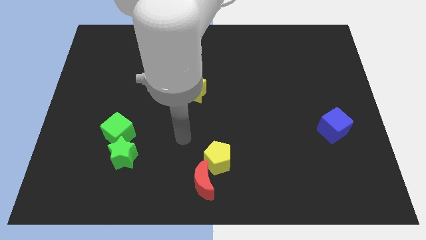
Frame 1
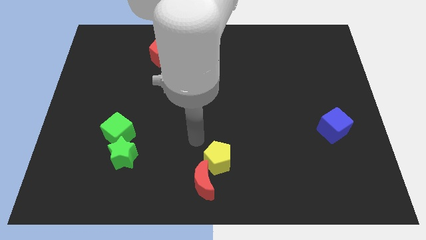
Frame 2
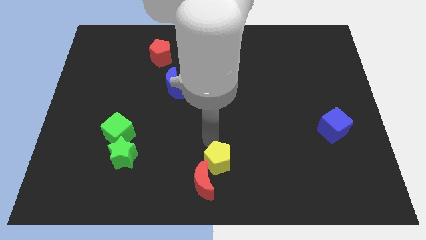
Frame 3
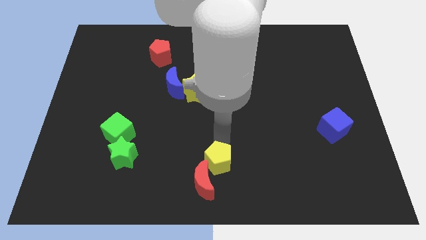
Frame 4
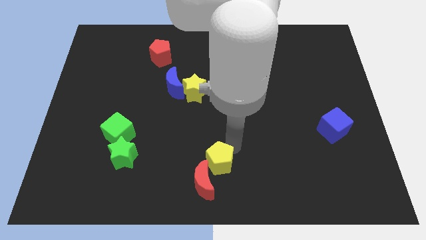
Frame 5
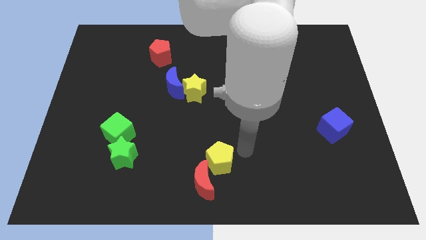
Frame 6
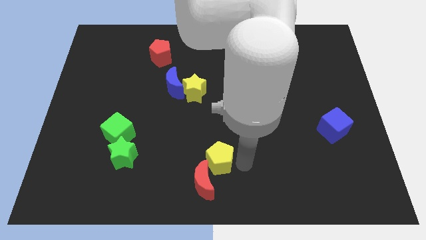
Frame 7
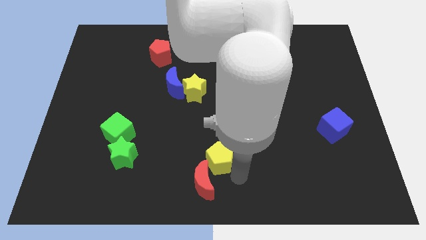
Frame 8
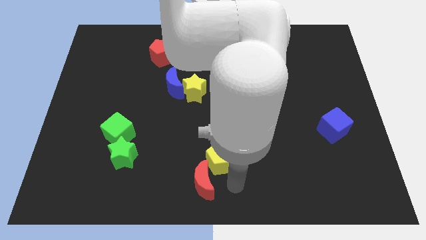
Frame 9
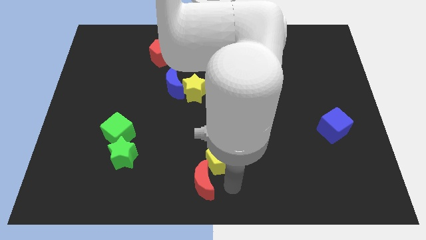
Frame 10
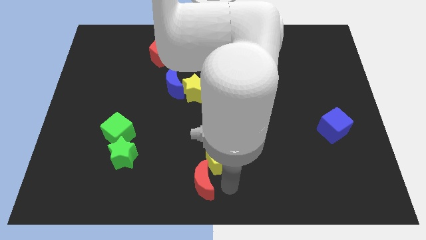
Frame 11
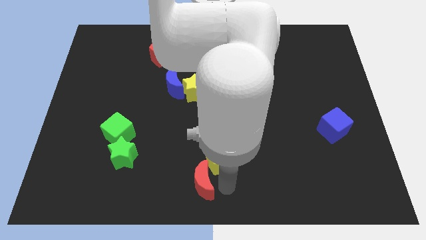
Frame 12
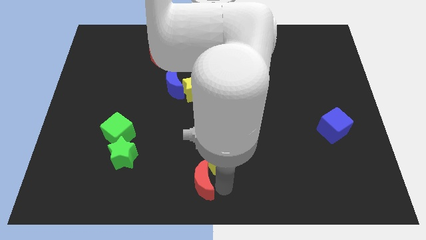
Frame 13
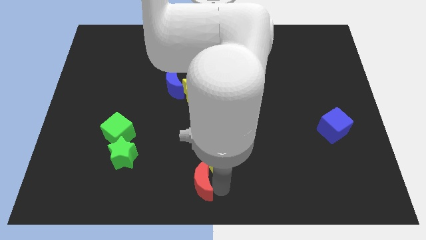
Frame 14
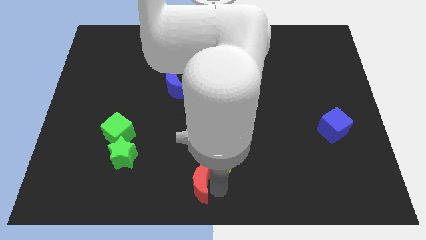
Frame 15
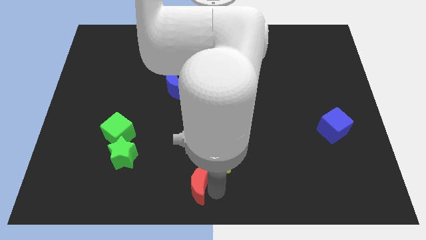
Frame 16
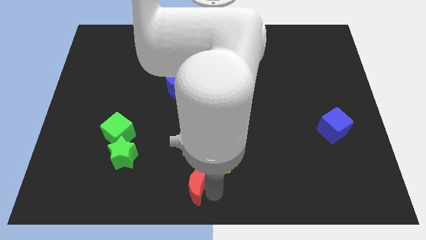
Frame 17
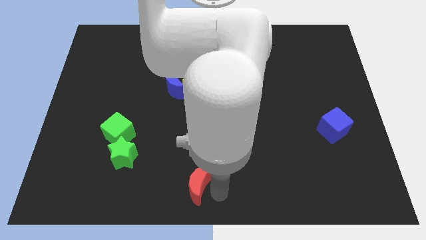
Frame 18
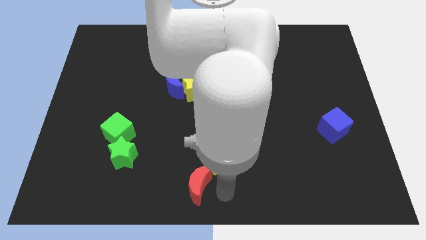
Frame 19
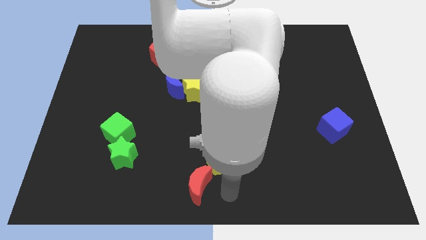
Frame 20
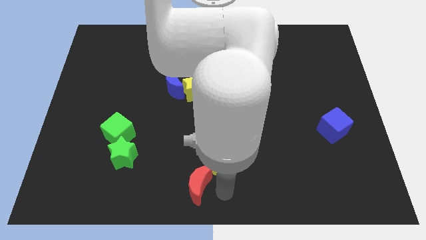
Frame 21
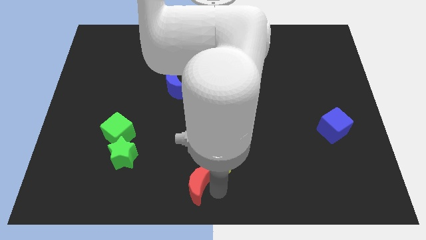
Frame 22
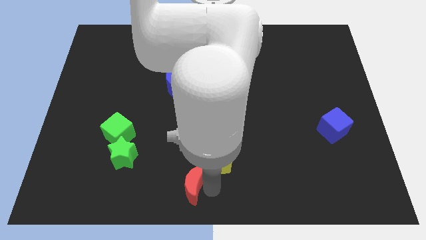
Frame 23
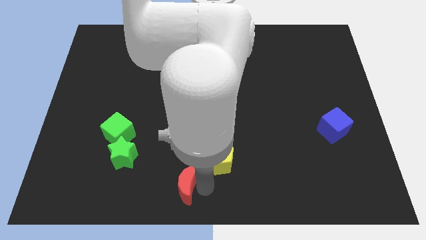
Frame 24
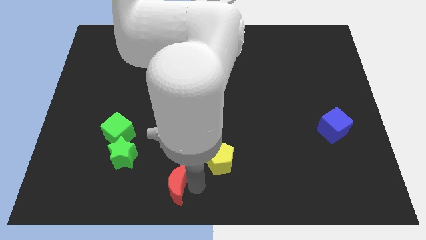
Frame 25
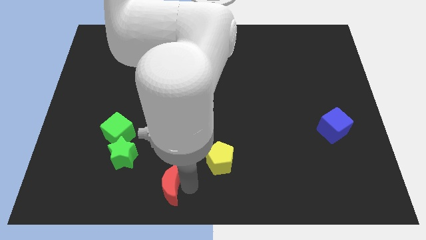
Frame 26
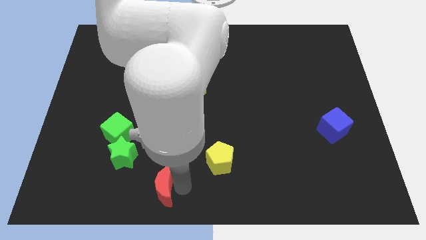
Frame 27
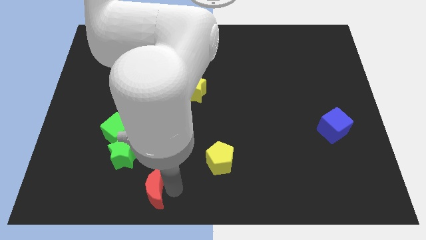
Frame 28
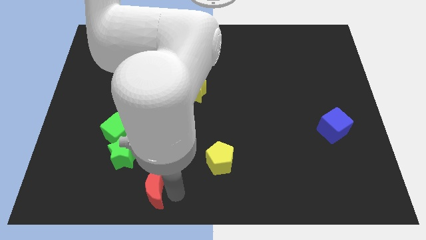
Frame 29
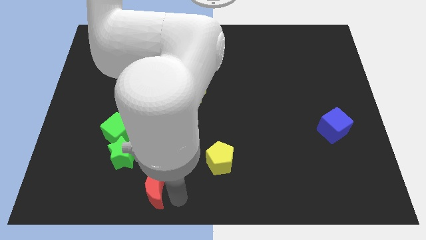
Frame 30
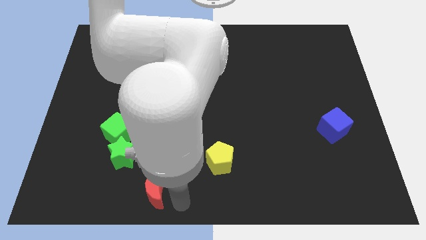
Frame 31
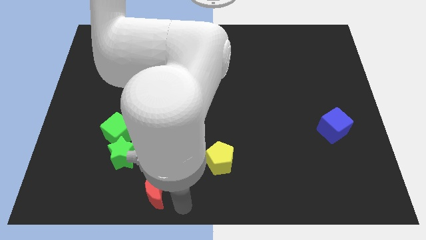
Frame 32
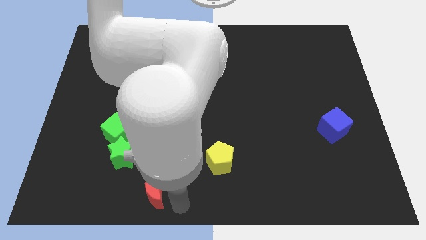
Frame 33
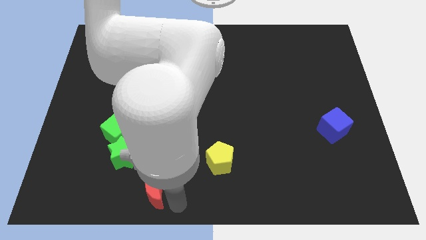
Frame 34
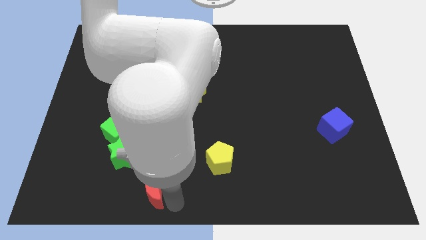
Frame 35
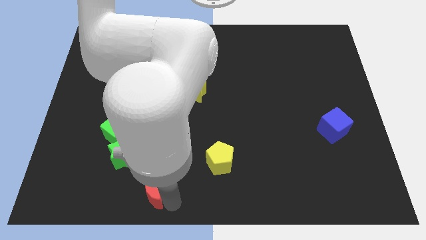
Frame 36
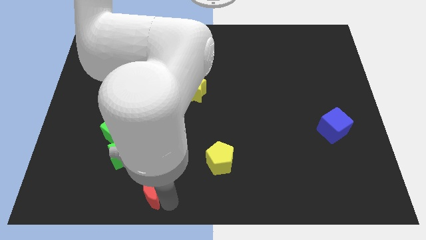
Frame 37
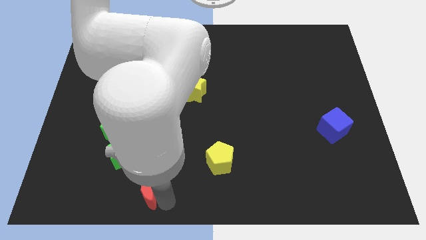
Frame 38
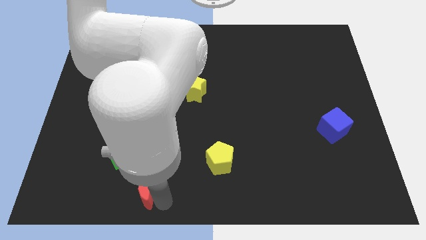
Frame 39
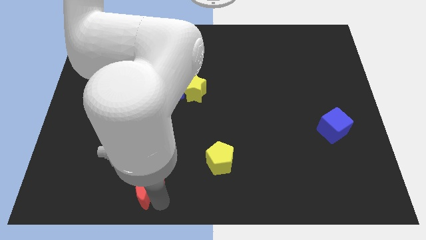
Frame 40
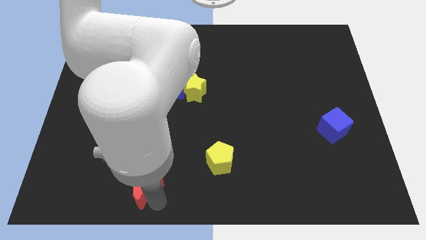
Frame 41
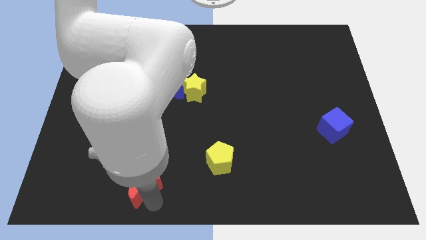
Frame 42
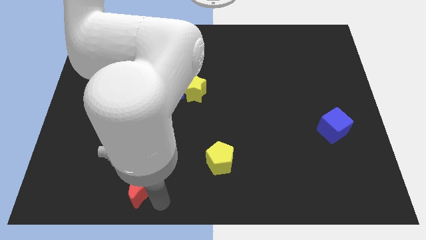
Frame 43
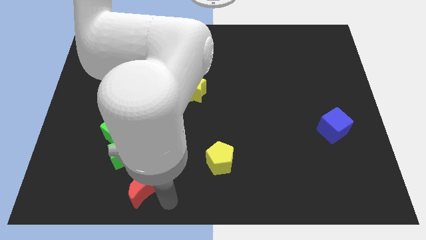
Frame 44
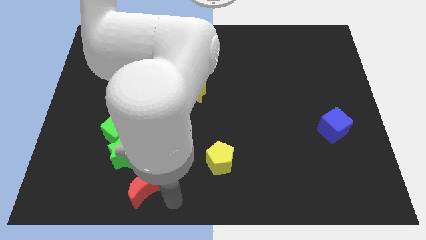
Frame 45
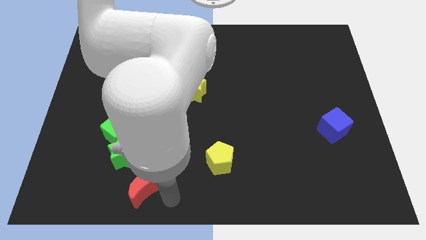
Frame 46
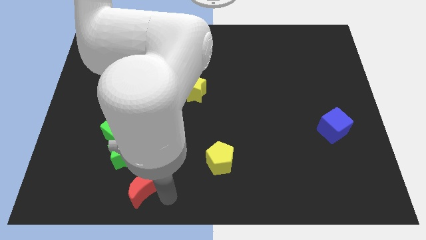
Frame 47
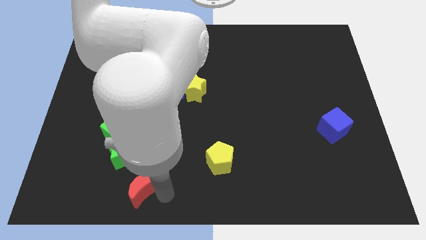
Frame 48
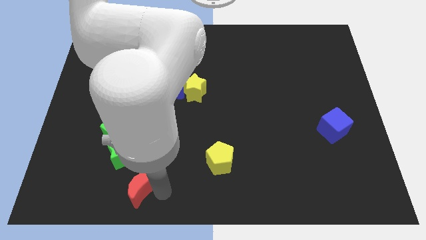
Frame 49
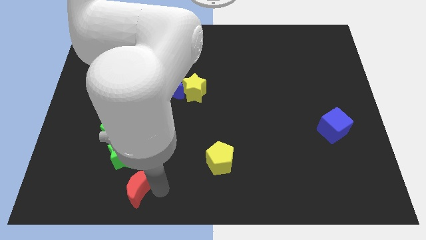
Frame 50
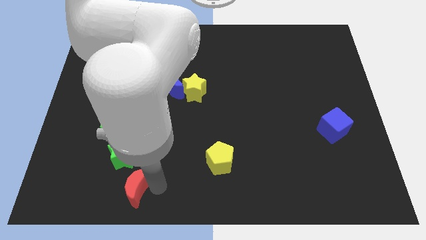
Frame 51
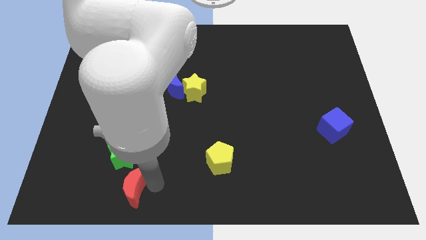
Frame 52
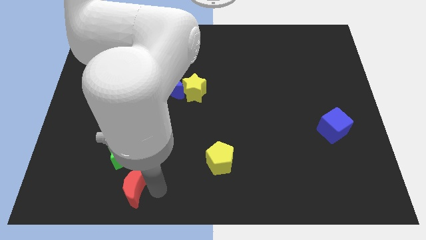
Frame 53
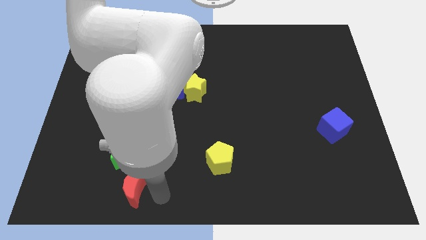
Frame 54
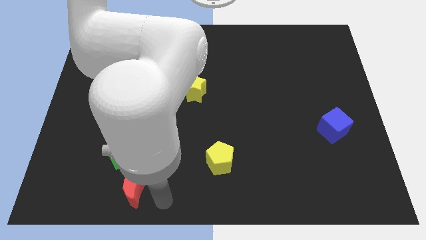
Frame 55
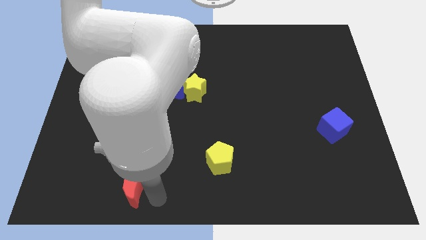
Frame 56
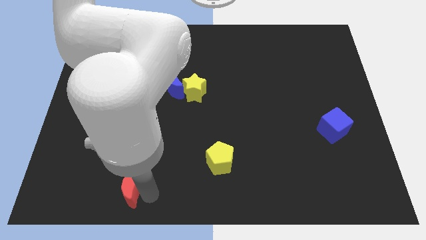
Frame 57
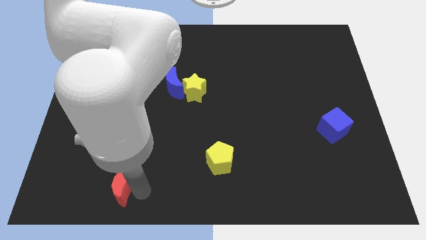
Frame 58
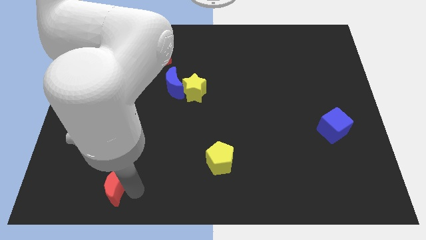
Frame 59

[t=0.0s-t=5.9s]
push the red moon to the bottom left side of the green star

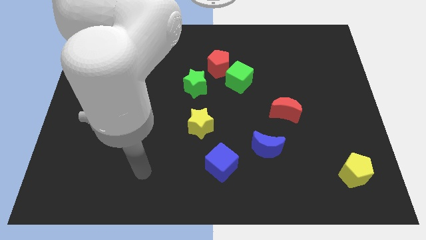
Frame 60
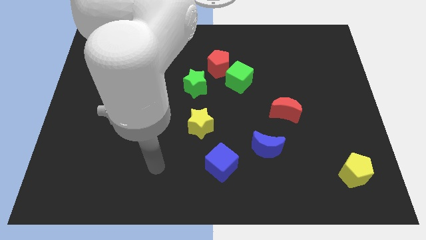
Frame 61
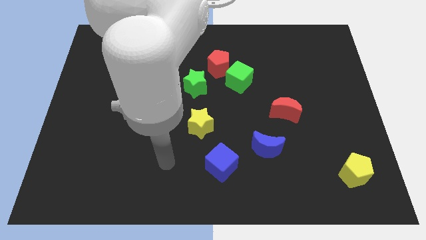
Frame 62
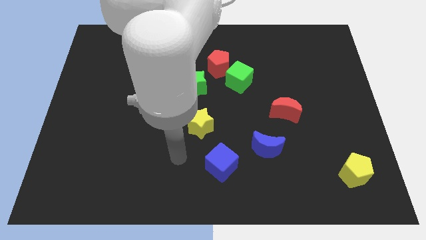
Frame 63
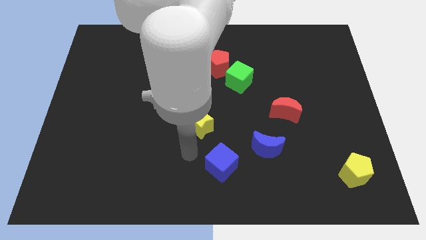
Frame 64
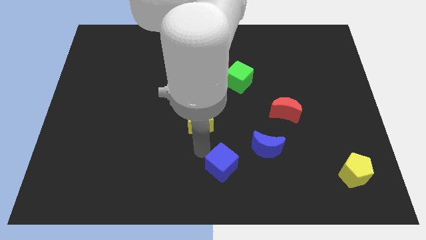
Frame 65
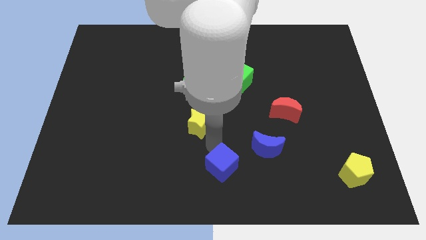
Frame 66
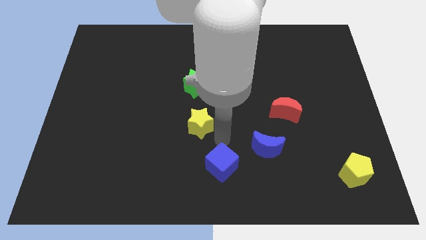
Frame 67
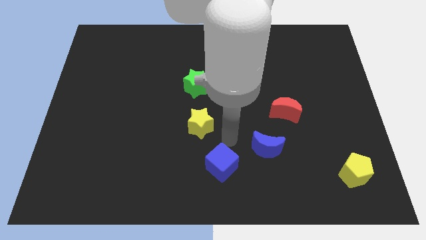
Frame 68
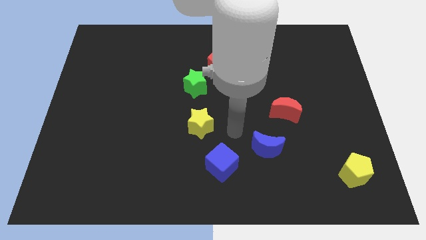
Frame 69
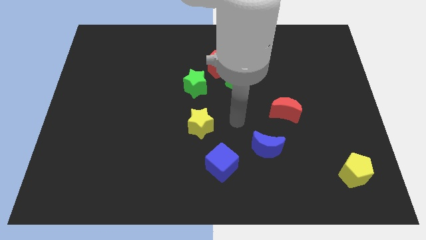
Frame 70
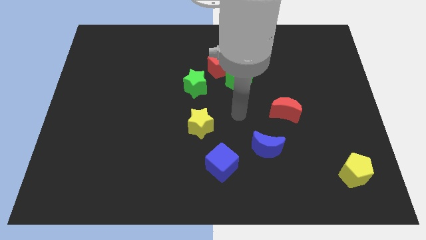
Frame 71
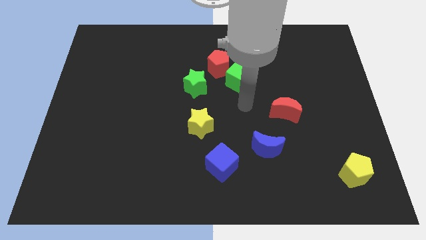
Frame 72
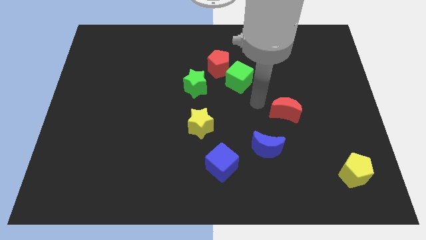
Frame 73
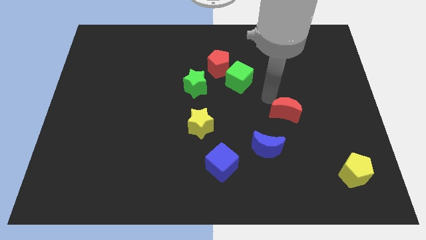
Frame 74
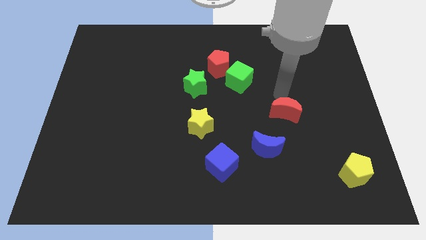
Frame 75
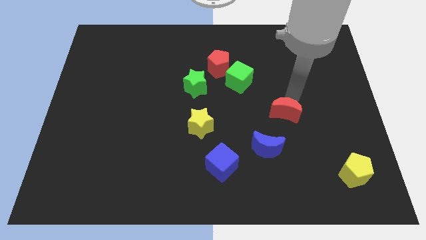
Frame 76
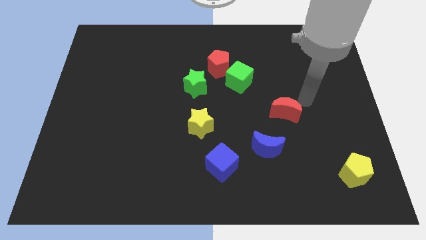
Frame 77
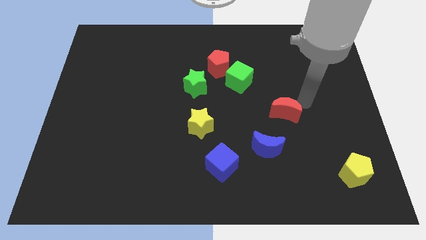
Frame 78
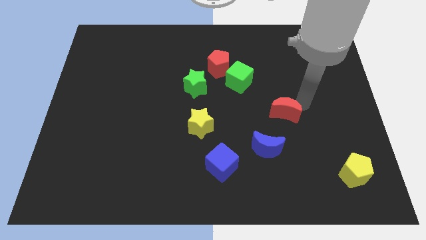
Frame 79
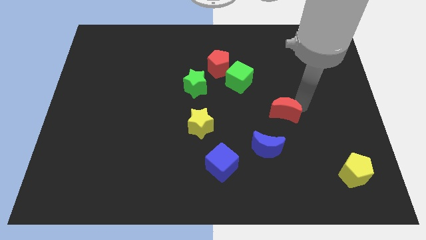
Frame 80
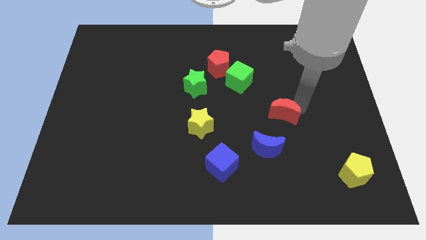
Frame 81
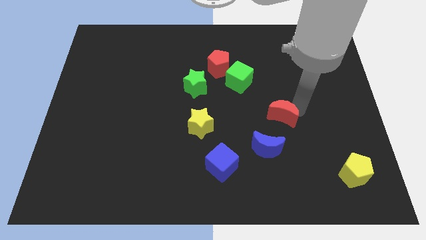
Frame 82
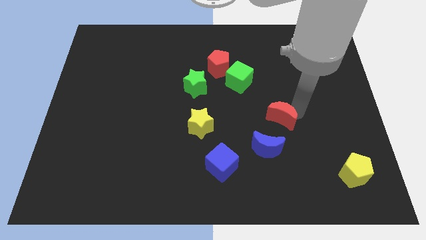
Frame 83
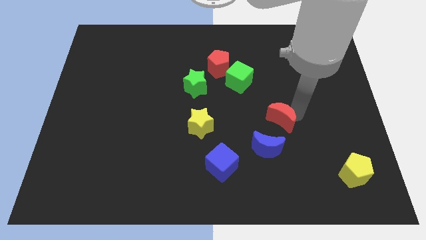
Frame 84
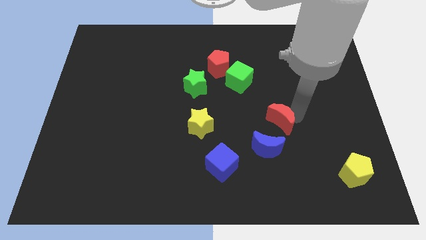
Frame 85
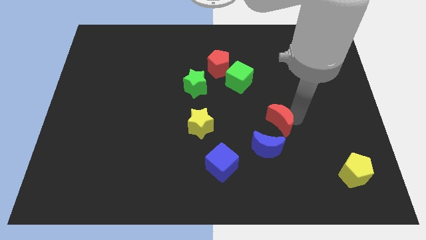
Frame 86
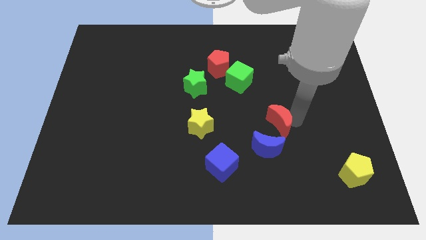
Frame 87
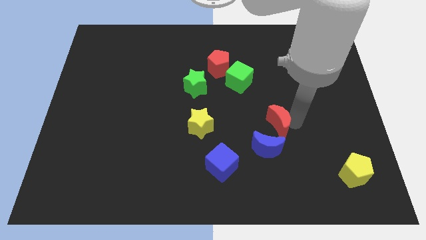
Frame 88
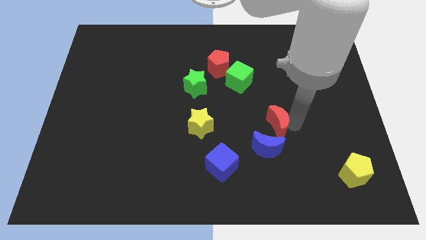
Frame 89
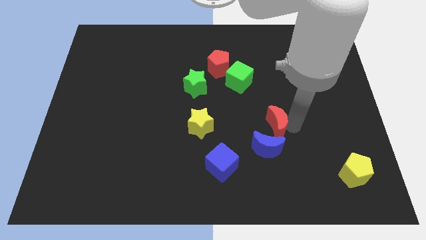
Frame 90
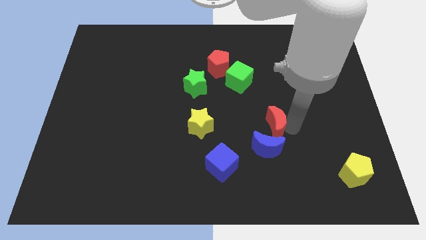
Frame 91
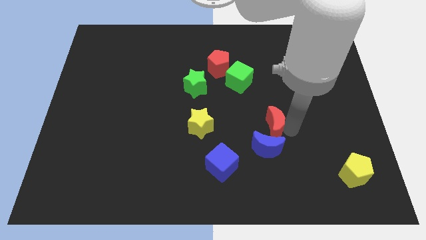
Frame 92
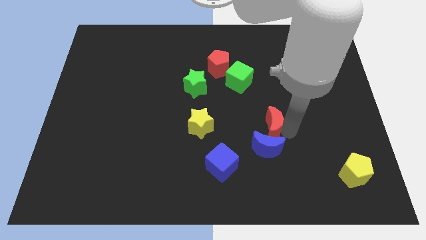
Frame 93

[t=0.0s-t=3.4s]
move the red moon just right of the yellow star
